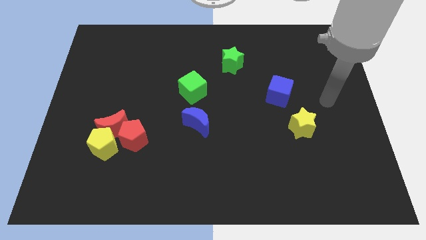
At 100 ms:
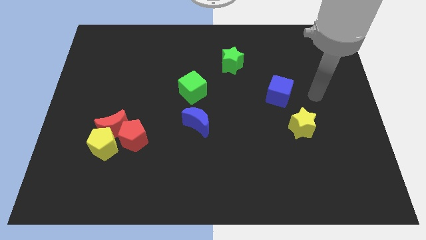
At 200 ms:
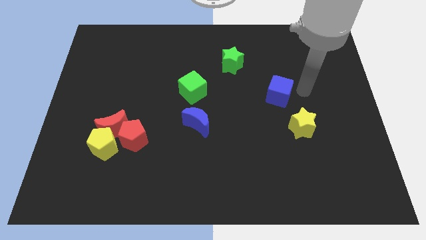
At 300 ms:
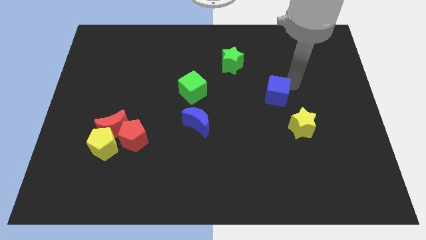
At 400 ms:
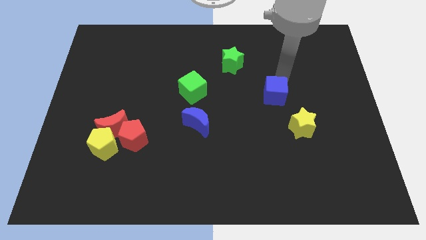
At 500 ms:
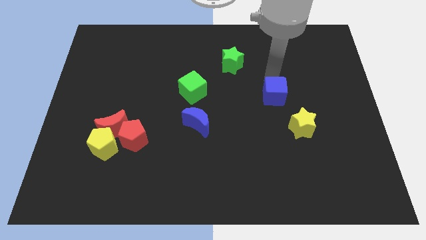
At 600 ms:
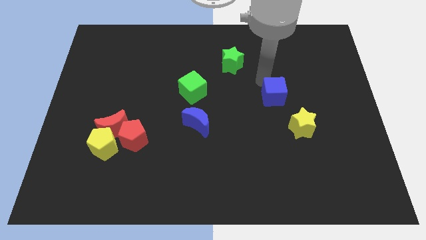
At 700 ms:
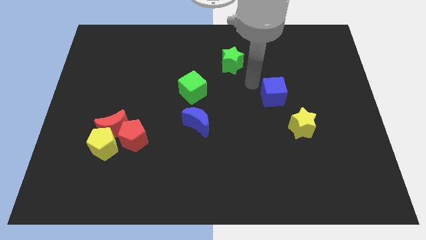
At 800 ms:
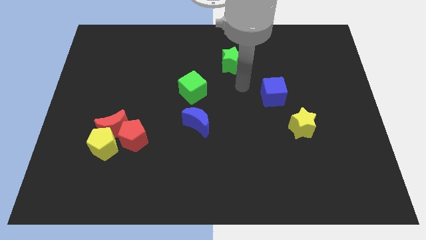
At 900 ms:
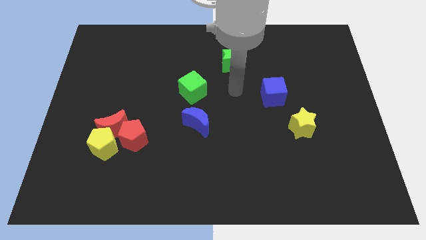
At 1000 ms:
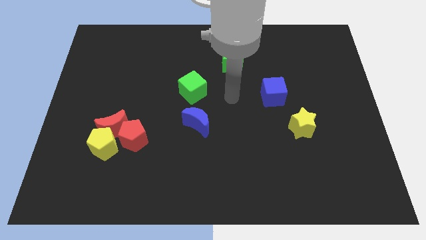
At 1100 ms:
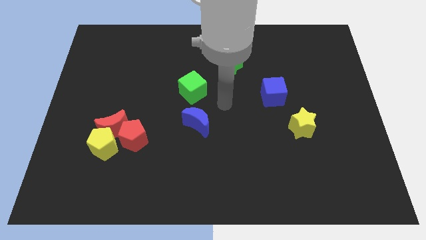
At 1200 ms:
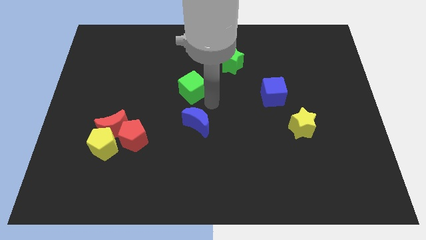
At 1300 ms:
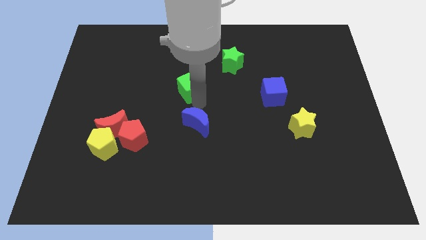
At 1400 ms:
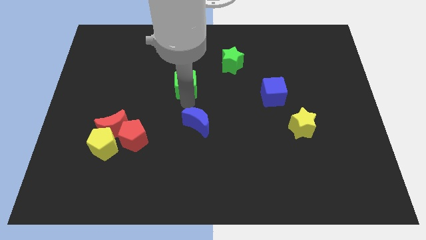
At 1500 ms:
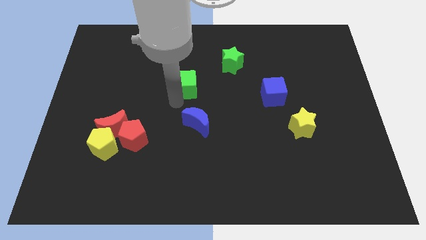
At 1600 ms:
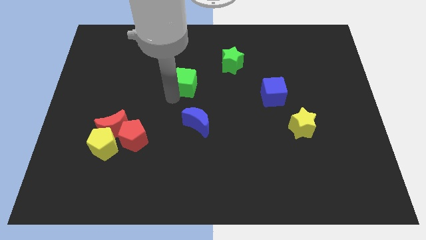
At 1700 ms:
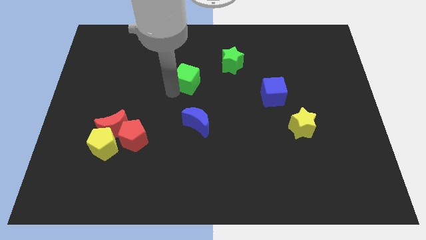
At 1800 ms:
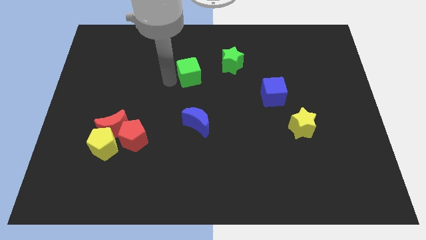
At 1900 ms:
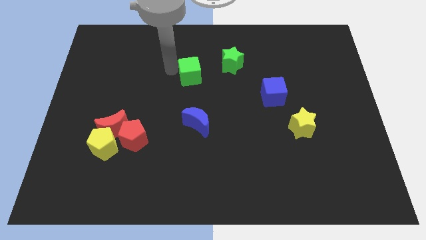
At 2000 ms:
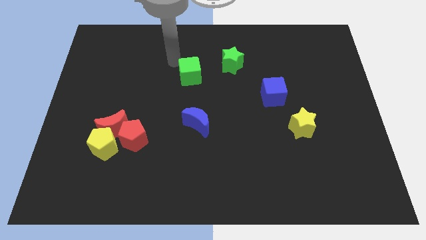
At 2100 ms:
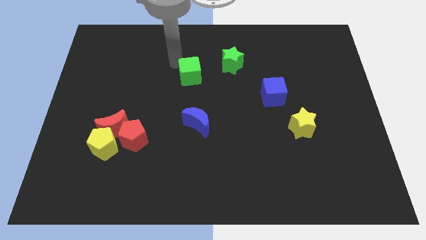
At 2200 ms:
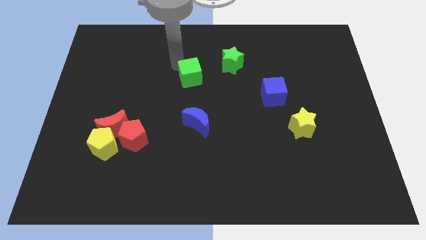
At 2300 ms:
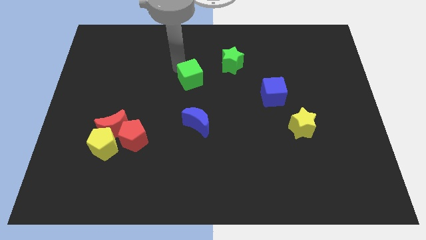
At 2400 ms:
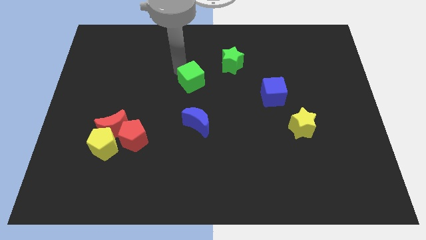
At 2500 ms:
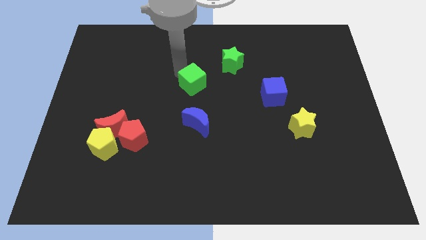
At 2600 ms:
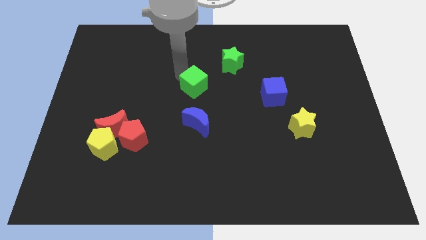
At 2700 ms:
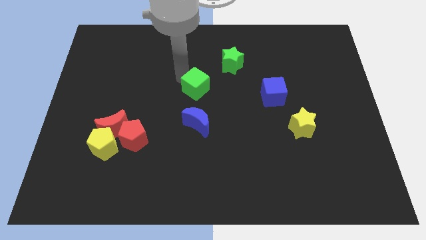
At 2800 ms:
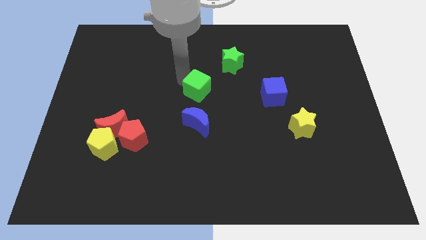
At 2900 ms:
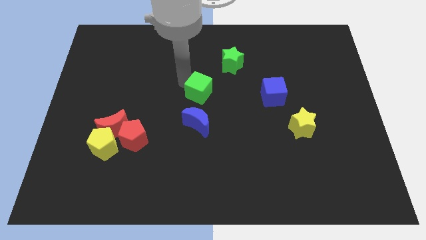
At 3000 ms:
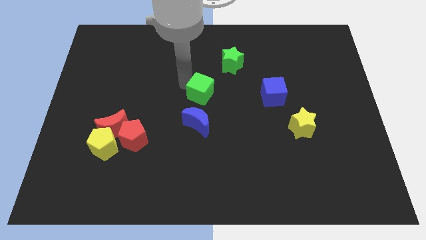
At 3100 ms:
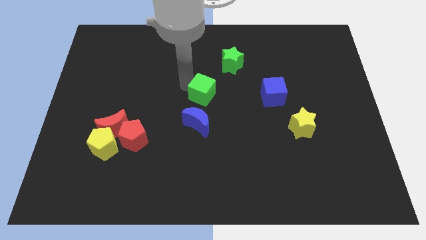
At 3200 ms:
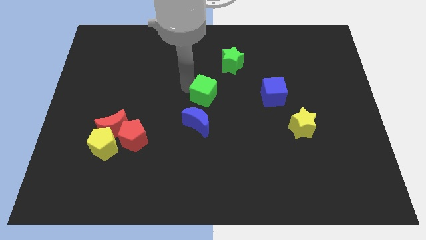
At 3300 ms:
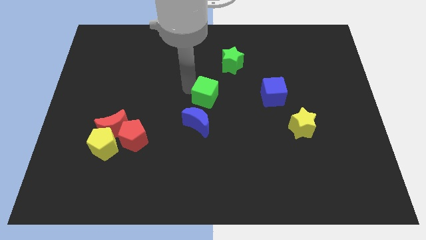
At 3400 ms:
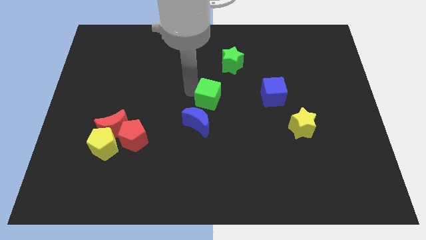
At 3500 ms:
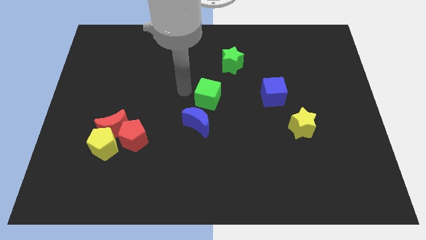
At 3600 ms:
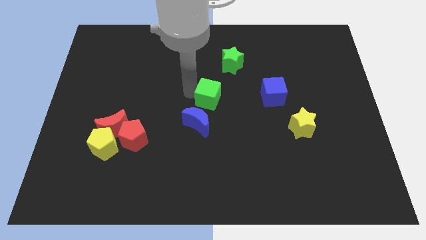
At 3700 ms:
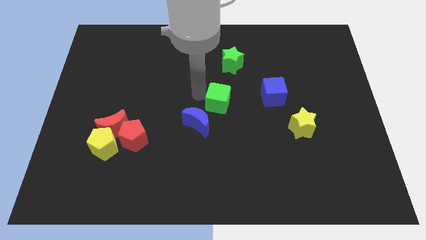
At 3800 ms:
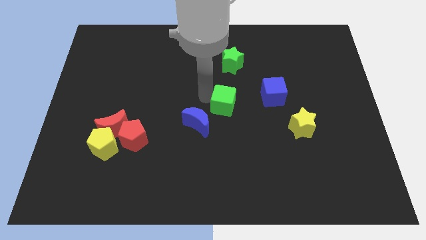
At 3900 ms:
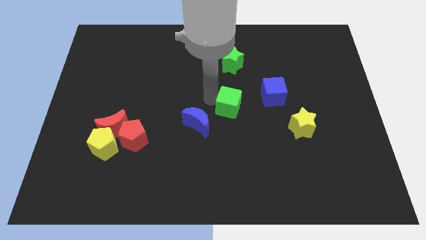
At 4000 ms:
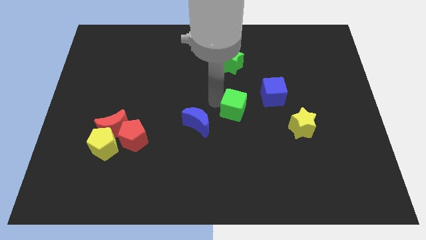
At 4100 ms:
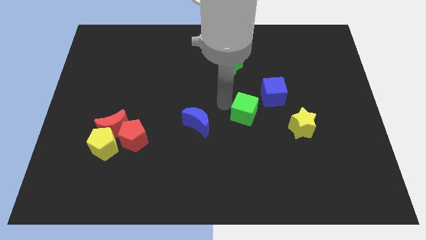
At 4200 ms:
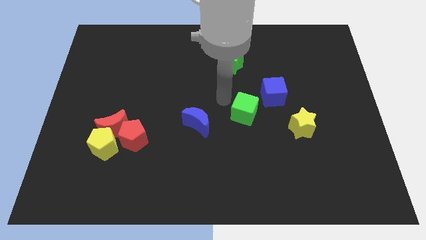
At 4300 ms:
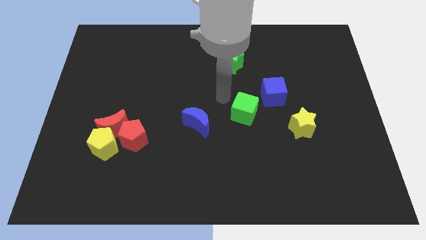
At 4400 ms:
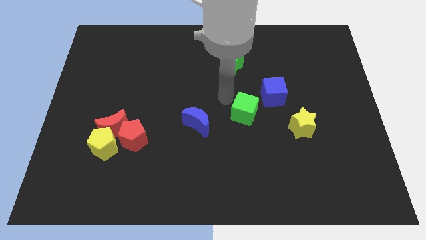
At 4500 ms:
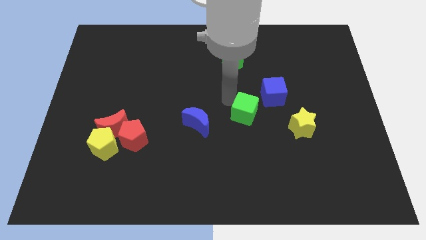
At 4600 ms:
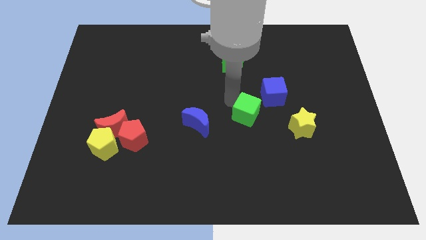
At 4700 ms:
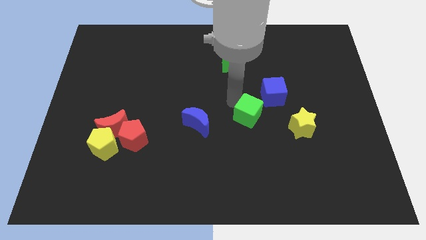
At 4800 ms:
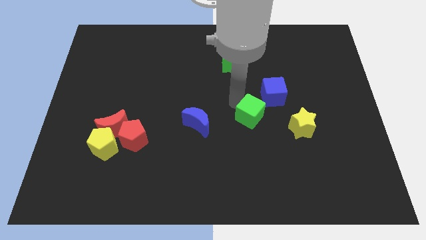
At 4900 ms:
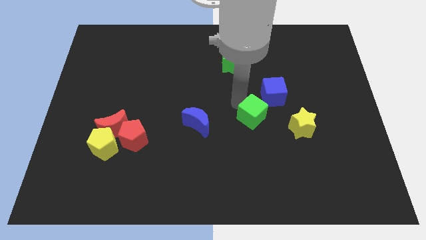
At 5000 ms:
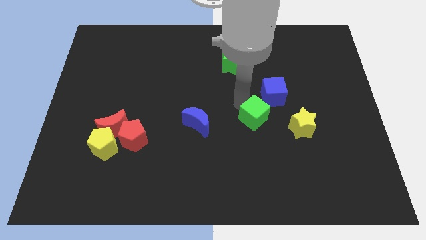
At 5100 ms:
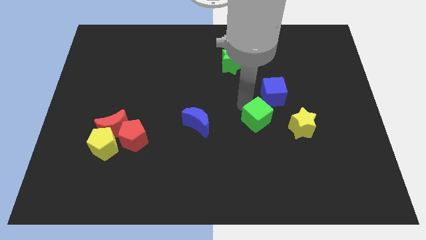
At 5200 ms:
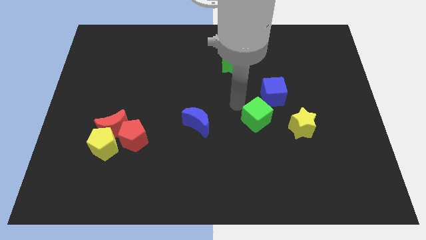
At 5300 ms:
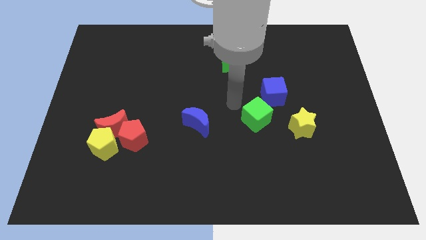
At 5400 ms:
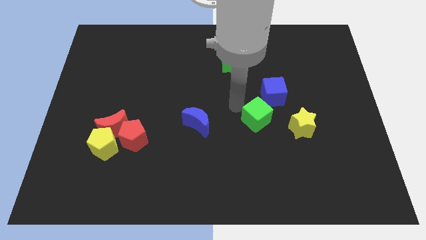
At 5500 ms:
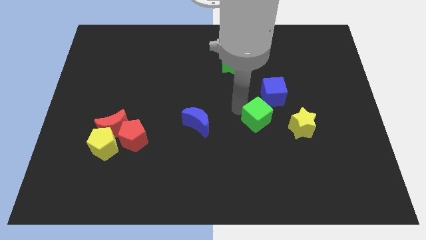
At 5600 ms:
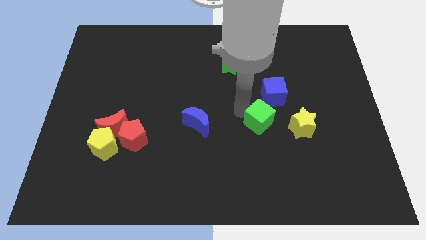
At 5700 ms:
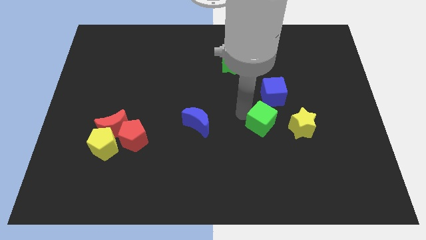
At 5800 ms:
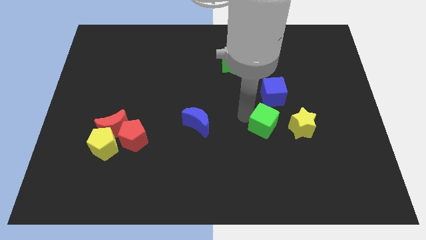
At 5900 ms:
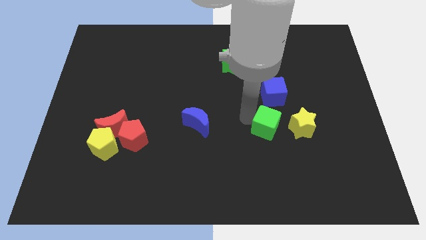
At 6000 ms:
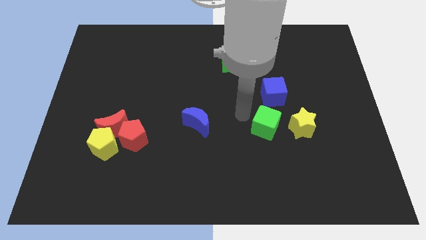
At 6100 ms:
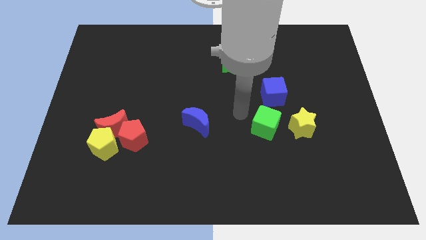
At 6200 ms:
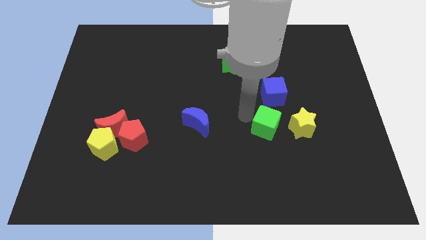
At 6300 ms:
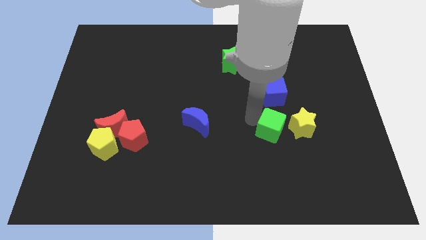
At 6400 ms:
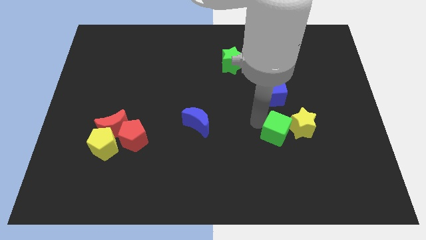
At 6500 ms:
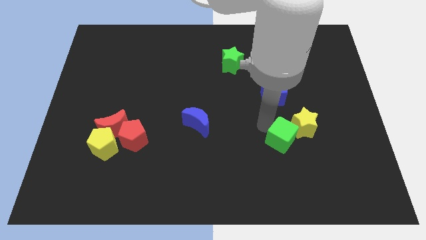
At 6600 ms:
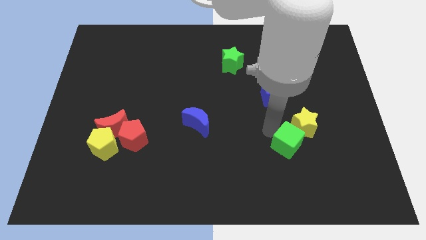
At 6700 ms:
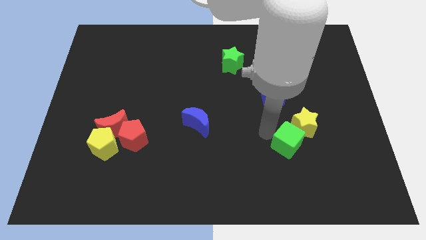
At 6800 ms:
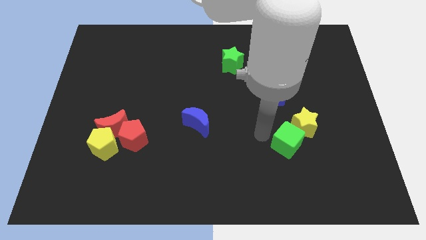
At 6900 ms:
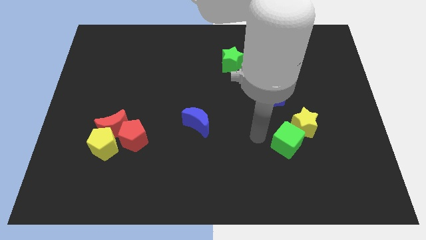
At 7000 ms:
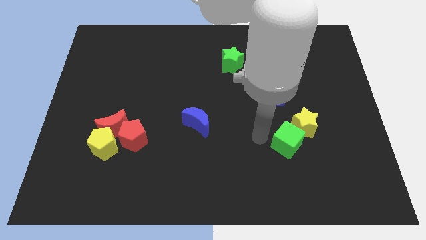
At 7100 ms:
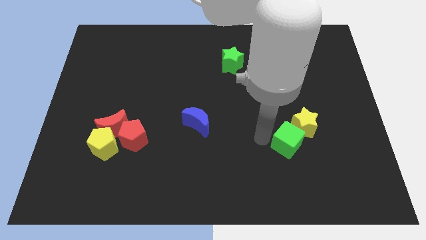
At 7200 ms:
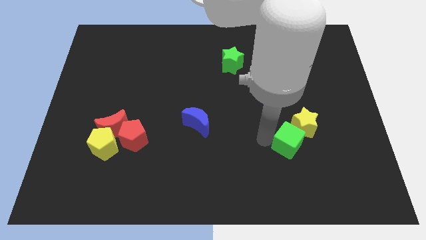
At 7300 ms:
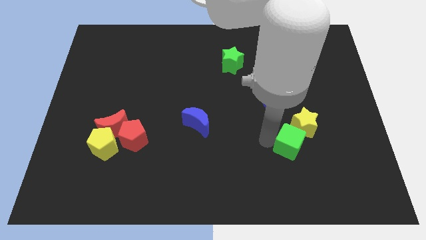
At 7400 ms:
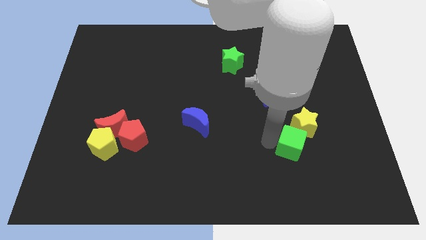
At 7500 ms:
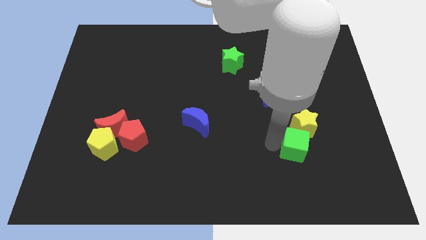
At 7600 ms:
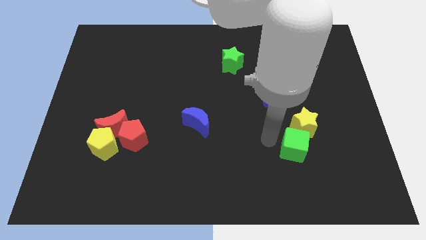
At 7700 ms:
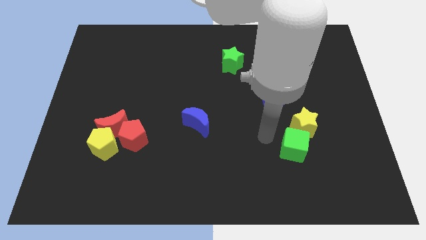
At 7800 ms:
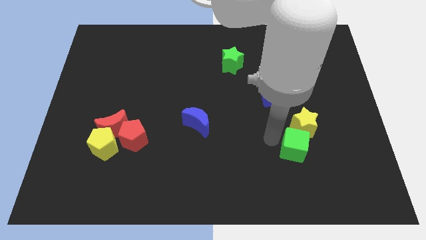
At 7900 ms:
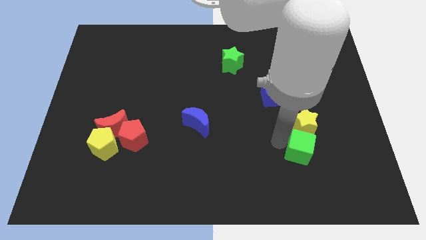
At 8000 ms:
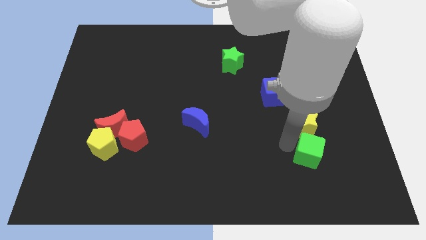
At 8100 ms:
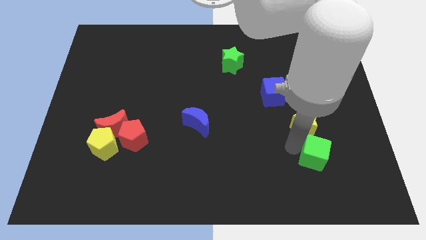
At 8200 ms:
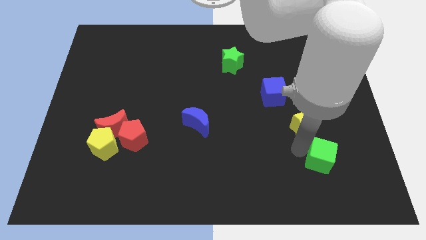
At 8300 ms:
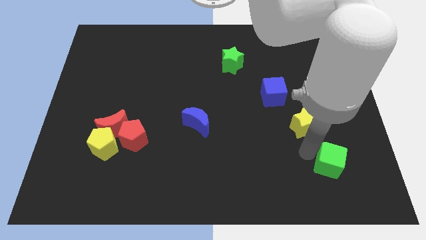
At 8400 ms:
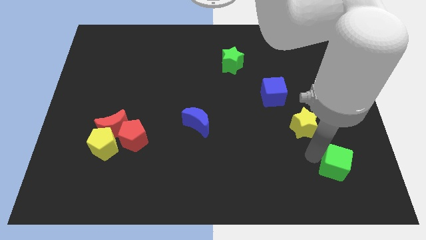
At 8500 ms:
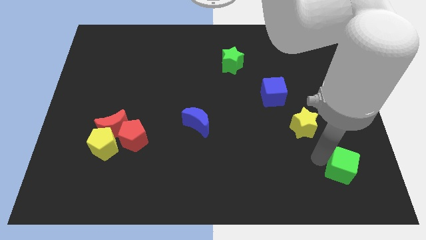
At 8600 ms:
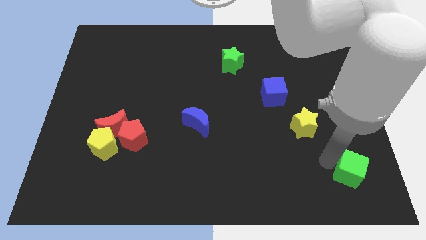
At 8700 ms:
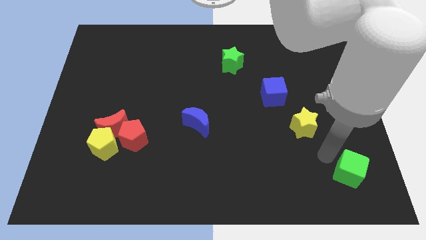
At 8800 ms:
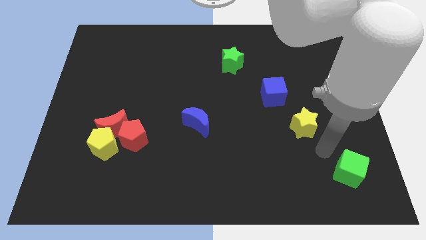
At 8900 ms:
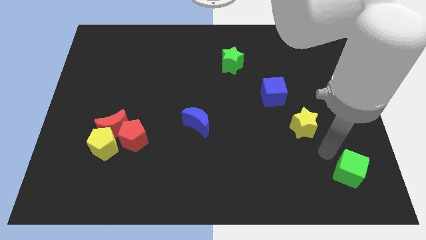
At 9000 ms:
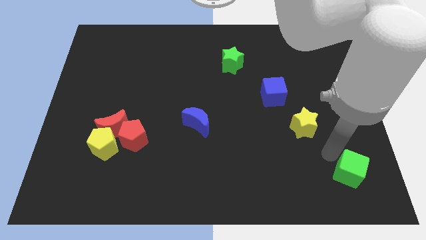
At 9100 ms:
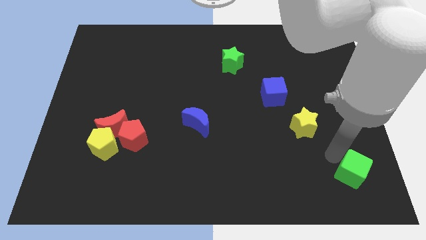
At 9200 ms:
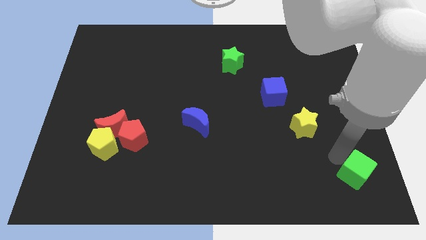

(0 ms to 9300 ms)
move the green cube to the bottom right
